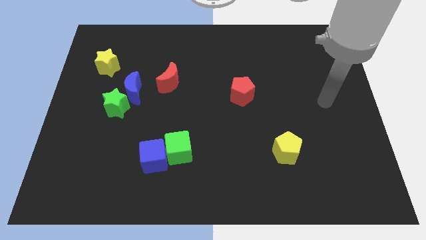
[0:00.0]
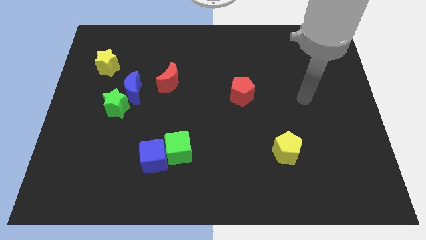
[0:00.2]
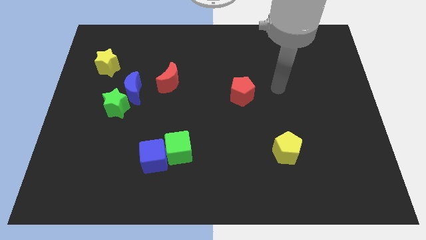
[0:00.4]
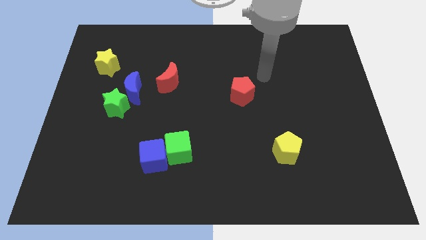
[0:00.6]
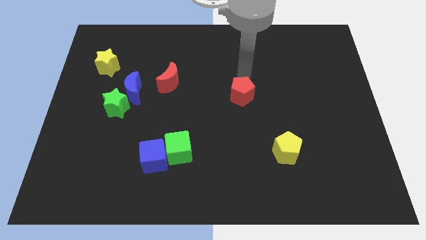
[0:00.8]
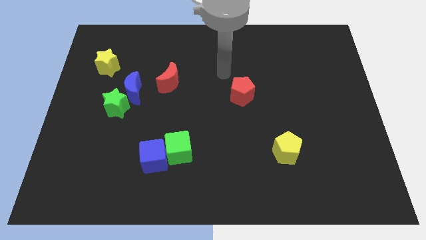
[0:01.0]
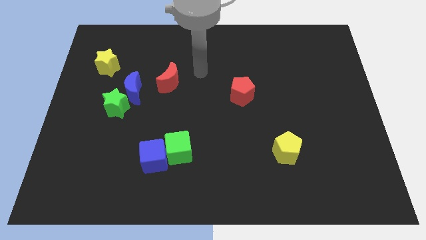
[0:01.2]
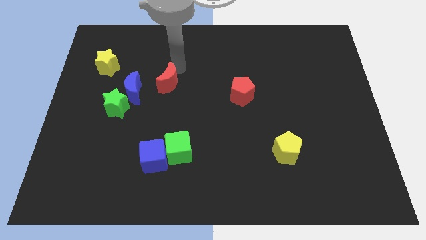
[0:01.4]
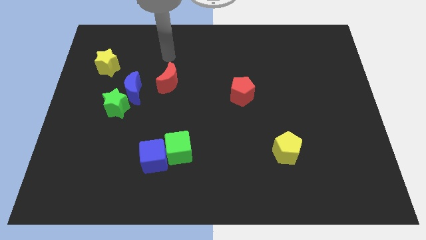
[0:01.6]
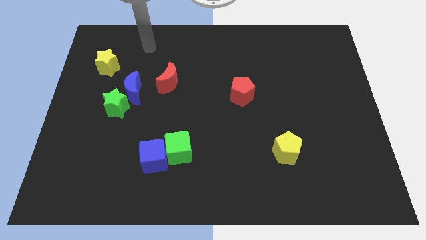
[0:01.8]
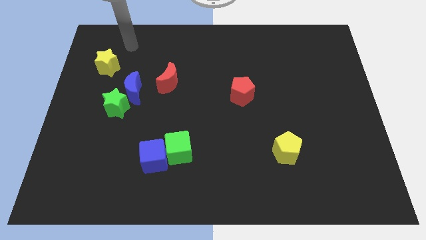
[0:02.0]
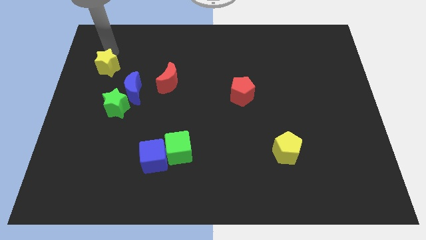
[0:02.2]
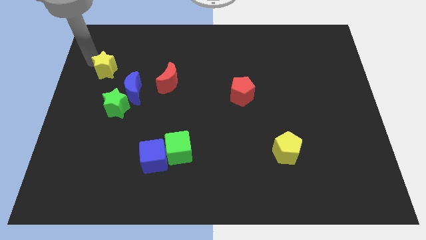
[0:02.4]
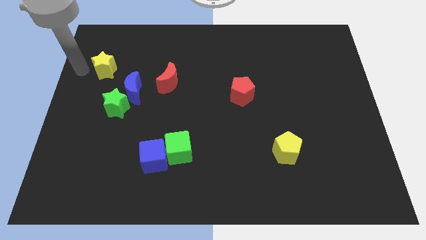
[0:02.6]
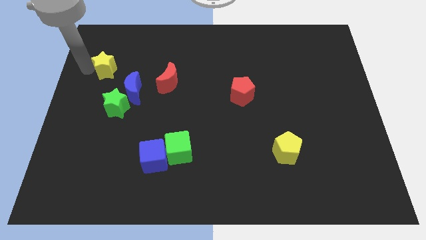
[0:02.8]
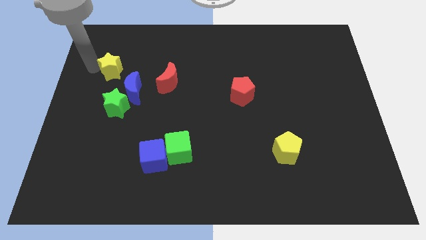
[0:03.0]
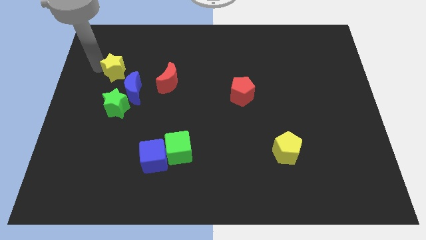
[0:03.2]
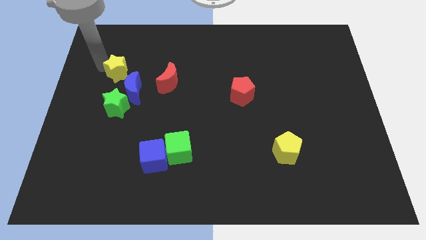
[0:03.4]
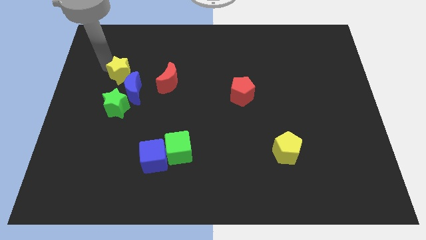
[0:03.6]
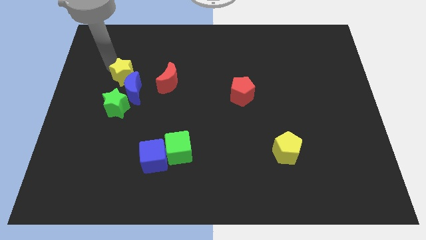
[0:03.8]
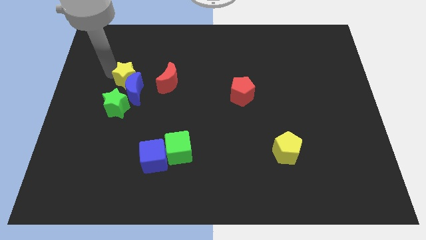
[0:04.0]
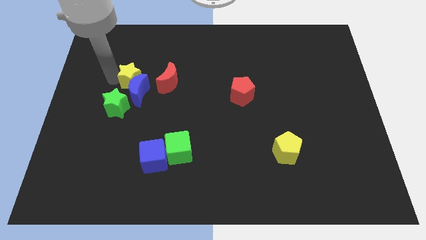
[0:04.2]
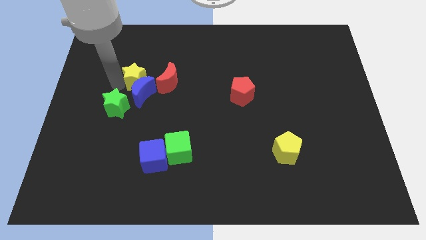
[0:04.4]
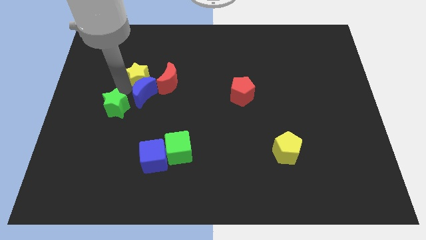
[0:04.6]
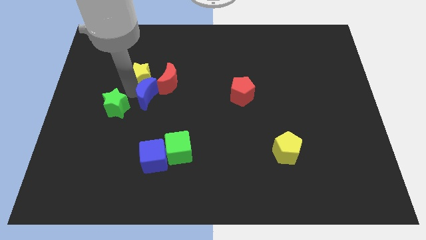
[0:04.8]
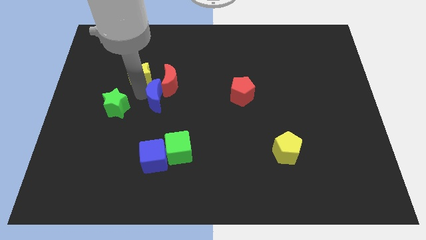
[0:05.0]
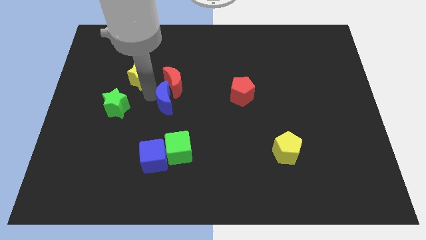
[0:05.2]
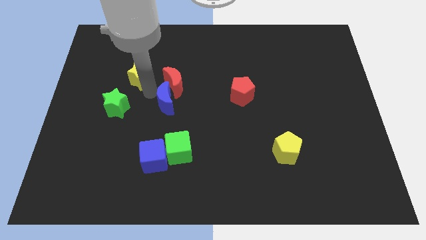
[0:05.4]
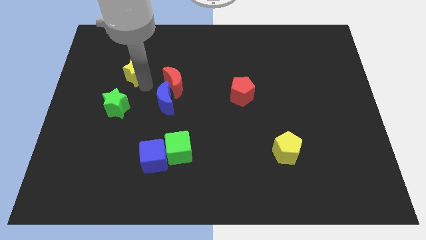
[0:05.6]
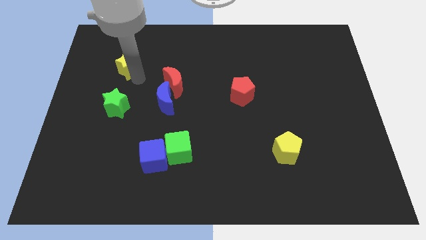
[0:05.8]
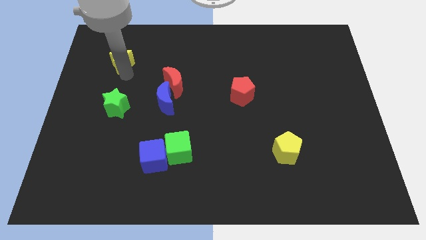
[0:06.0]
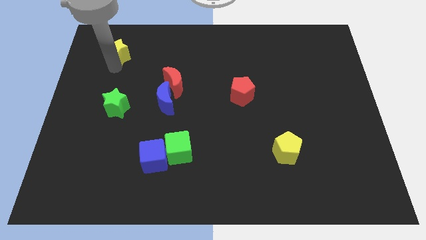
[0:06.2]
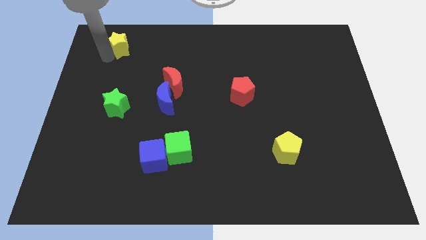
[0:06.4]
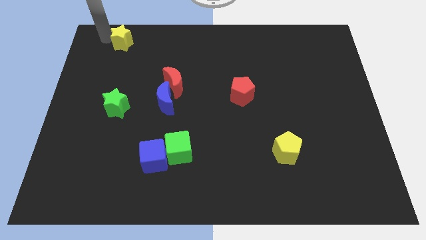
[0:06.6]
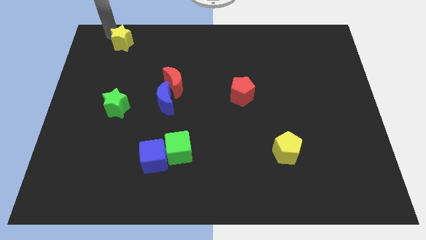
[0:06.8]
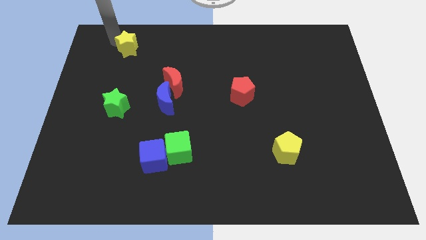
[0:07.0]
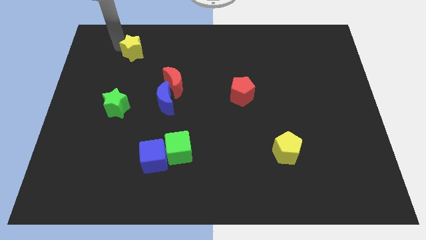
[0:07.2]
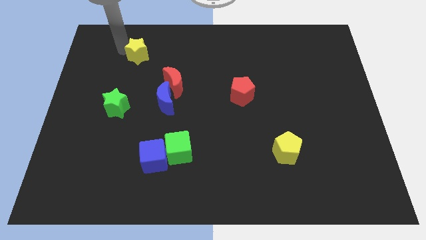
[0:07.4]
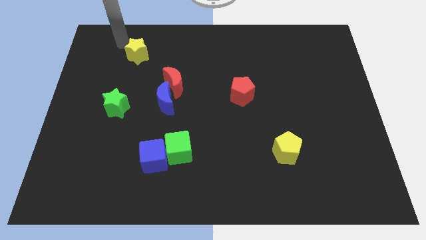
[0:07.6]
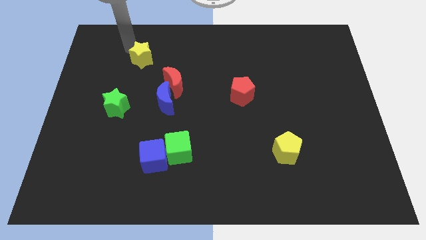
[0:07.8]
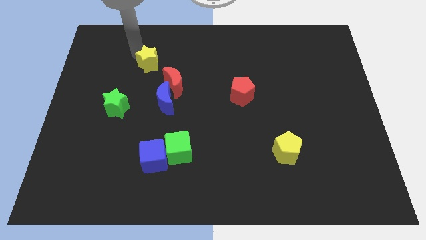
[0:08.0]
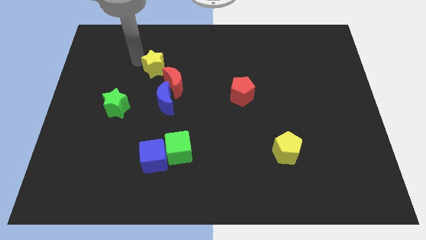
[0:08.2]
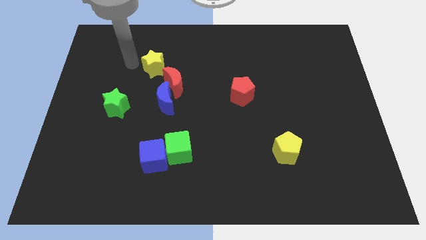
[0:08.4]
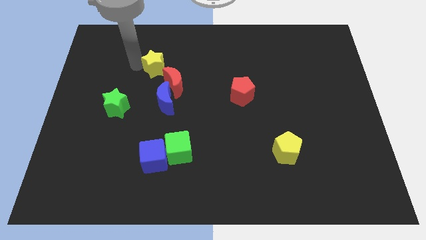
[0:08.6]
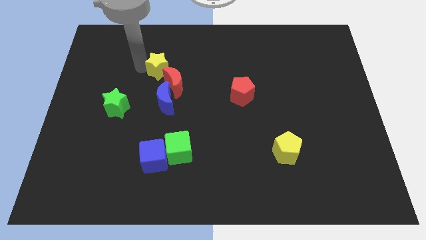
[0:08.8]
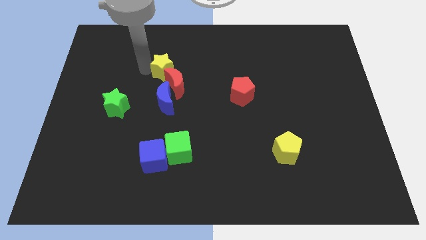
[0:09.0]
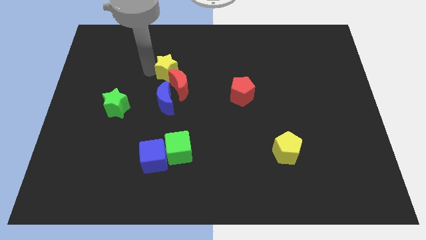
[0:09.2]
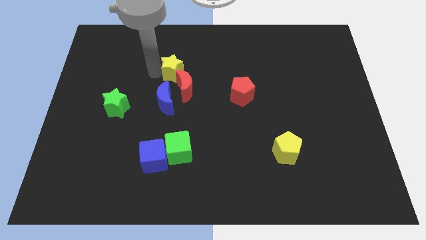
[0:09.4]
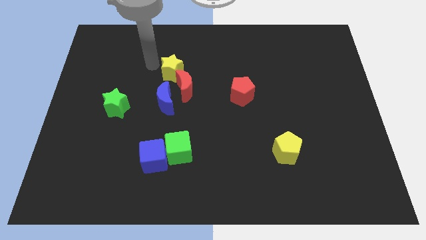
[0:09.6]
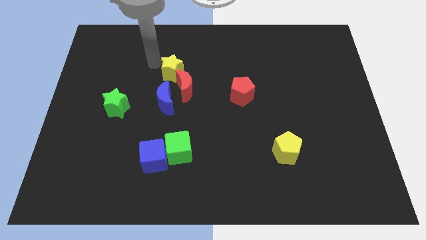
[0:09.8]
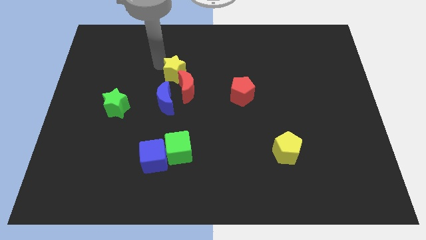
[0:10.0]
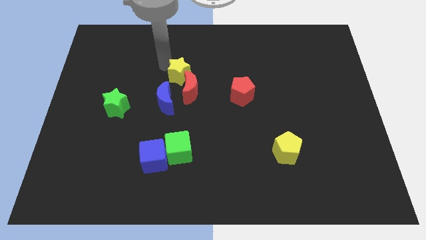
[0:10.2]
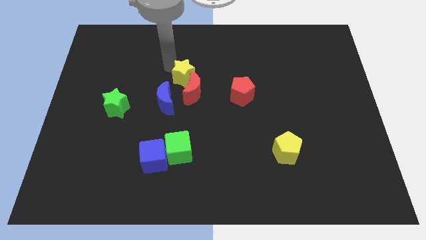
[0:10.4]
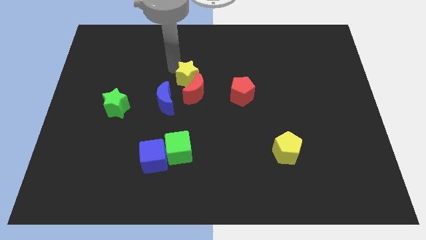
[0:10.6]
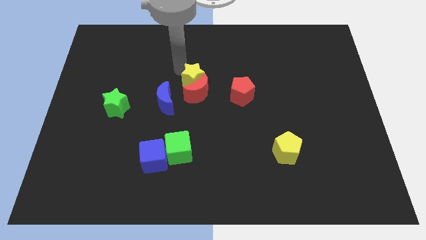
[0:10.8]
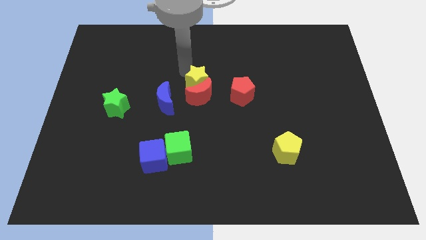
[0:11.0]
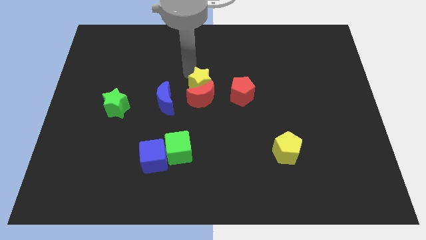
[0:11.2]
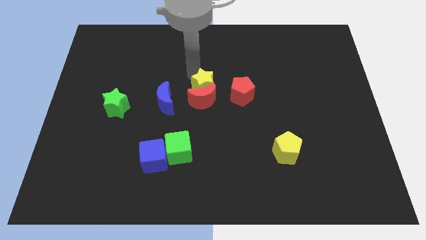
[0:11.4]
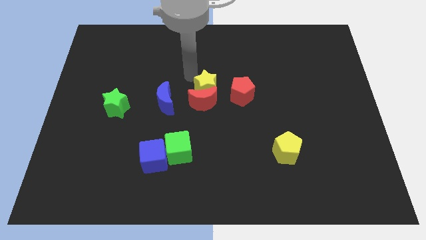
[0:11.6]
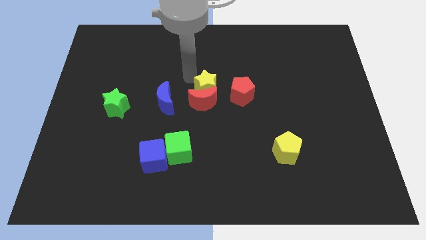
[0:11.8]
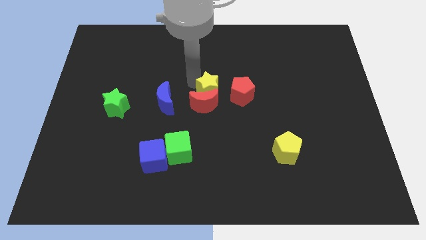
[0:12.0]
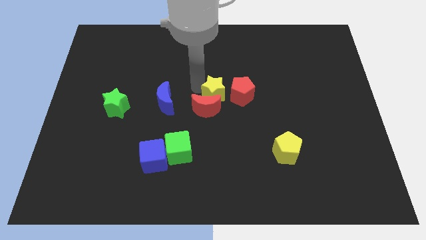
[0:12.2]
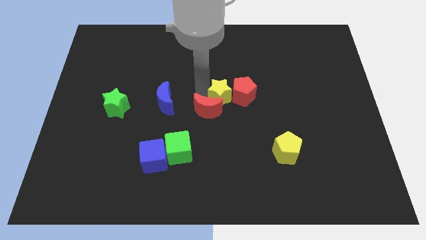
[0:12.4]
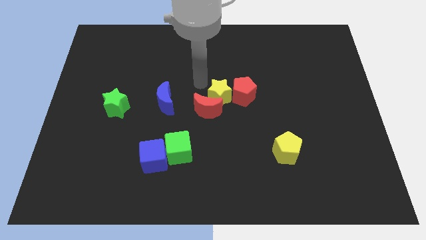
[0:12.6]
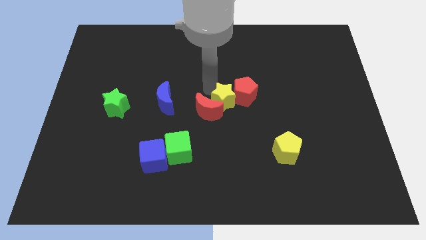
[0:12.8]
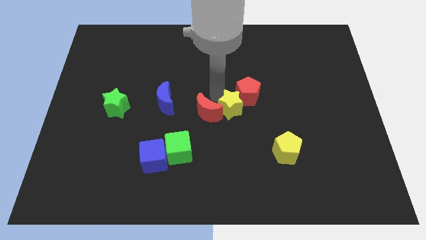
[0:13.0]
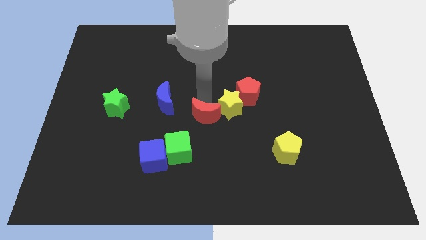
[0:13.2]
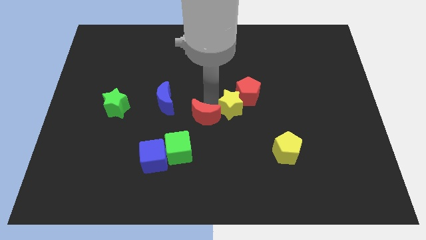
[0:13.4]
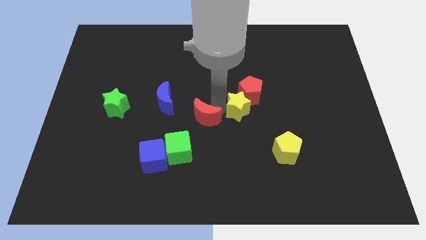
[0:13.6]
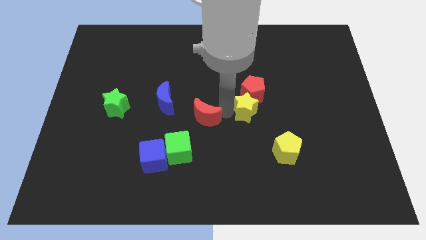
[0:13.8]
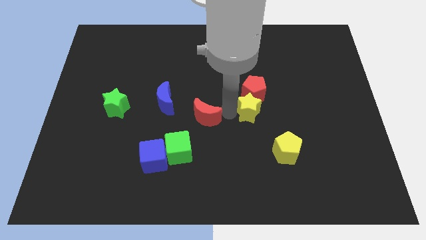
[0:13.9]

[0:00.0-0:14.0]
put the yellow star diagonally down and to the right of the red pentagon

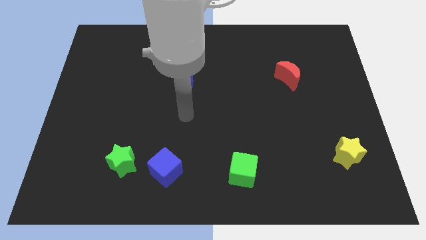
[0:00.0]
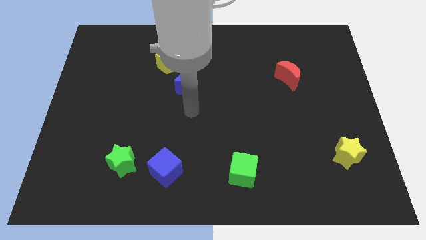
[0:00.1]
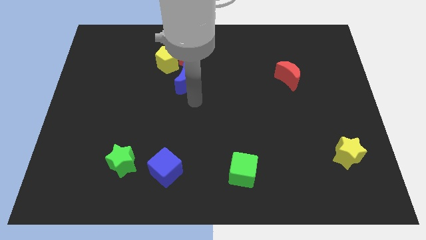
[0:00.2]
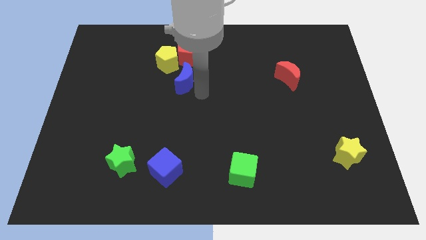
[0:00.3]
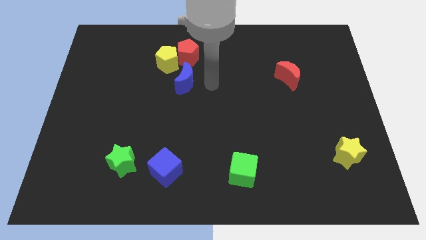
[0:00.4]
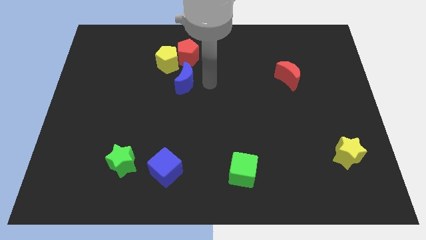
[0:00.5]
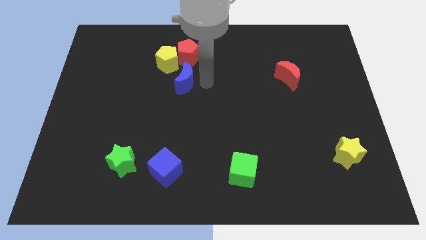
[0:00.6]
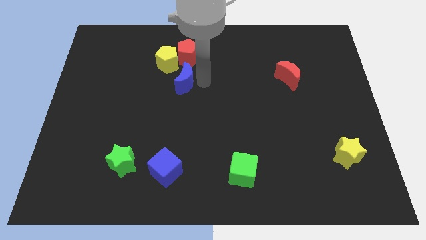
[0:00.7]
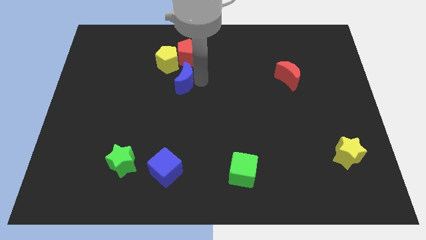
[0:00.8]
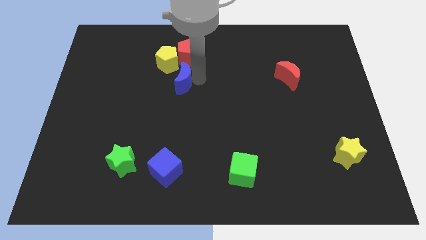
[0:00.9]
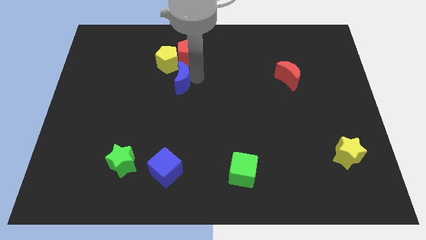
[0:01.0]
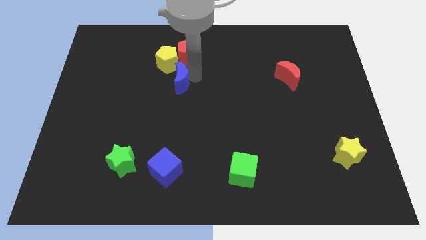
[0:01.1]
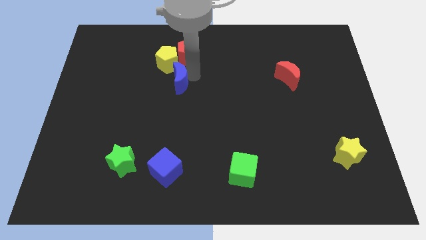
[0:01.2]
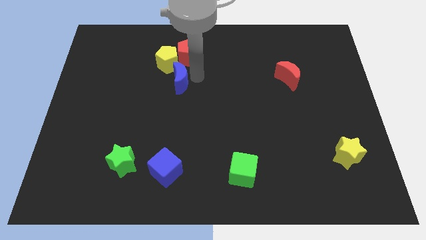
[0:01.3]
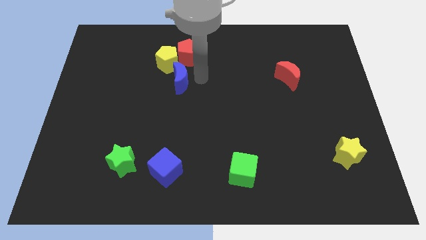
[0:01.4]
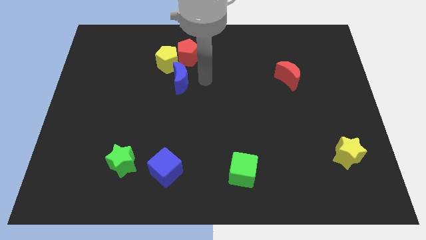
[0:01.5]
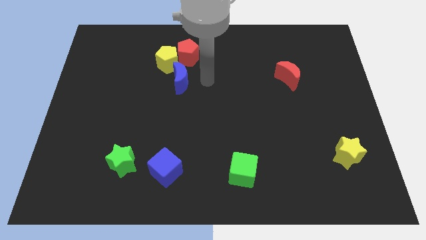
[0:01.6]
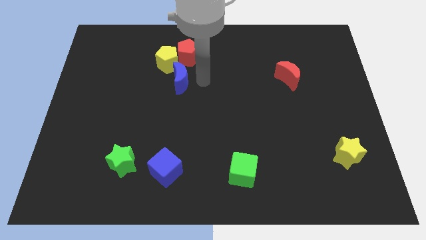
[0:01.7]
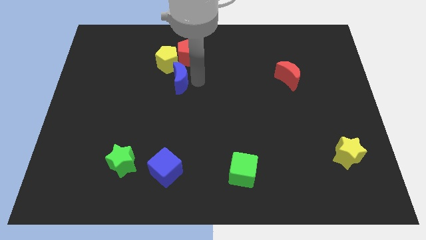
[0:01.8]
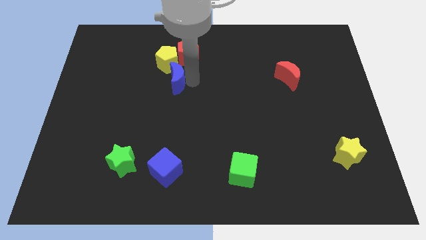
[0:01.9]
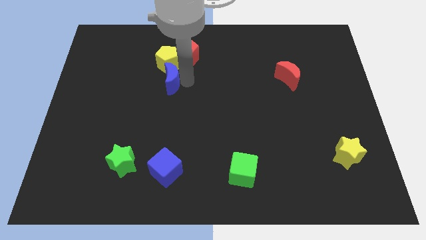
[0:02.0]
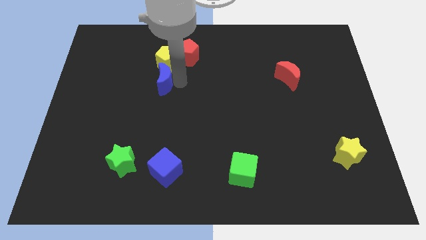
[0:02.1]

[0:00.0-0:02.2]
push the blue moon diagonally down and to the left of the yellow pentagon
